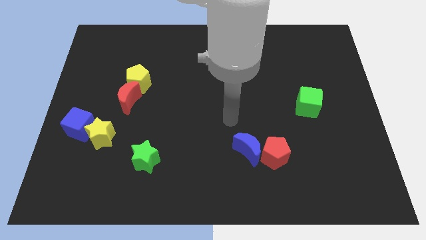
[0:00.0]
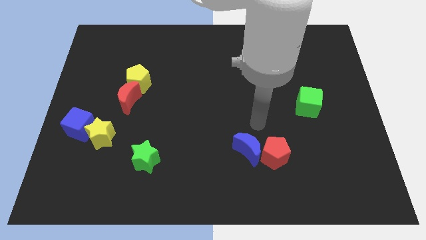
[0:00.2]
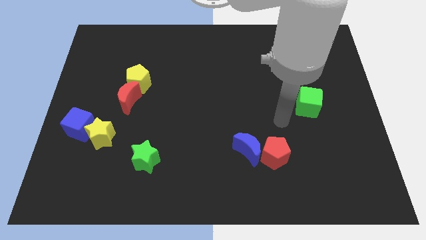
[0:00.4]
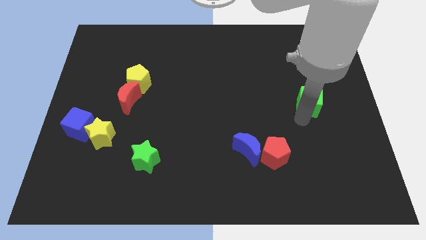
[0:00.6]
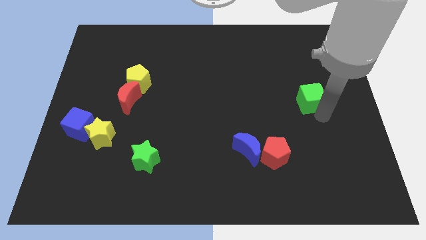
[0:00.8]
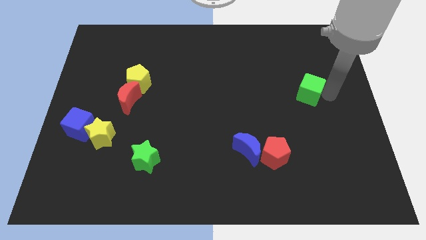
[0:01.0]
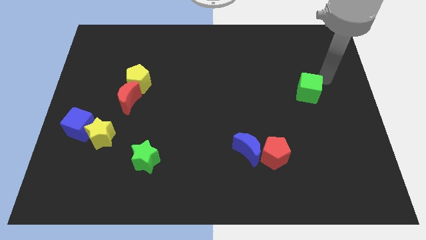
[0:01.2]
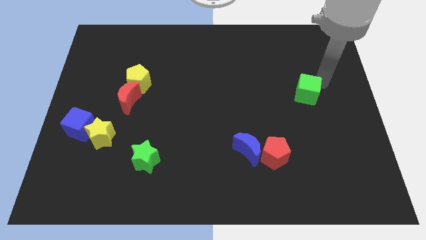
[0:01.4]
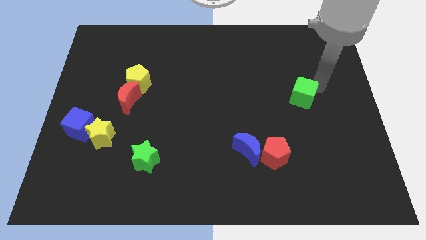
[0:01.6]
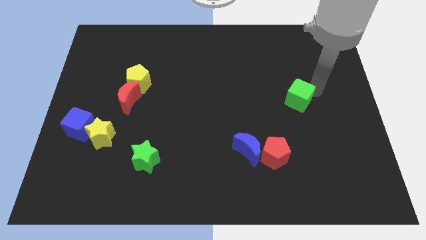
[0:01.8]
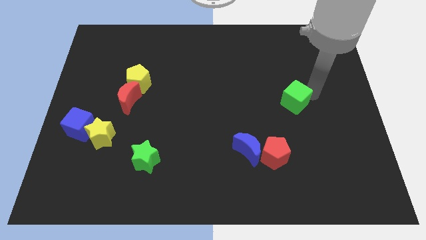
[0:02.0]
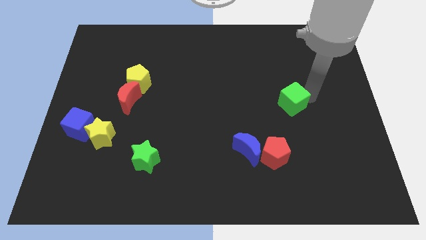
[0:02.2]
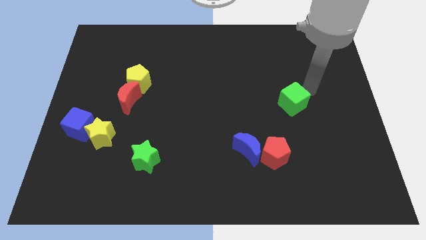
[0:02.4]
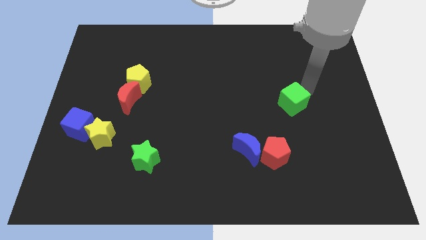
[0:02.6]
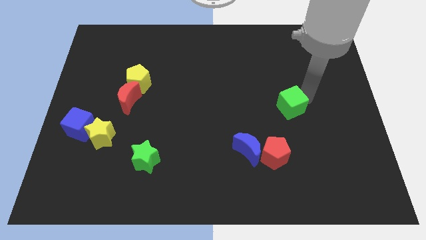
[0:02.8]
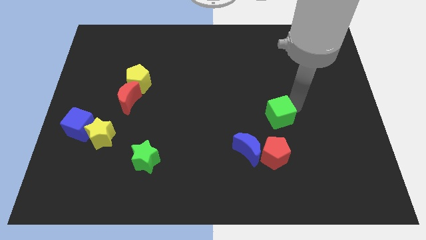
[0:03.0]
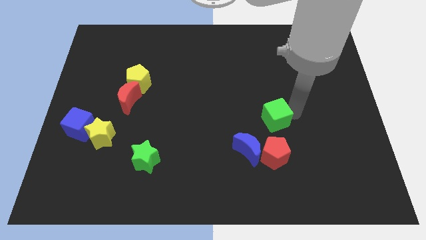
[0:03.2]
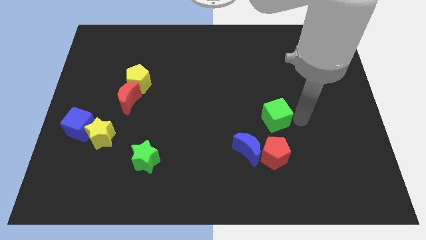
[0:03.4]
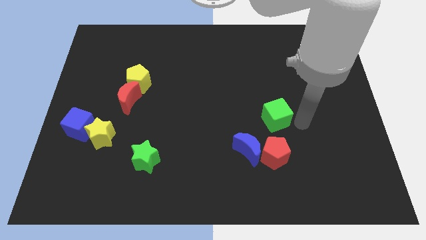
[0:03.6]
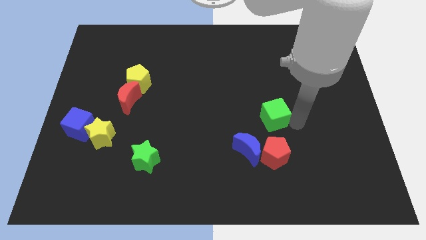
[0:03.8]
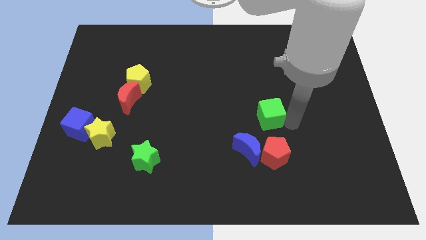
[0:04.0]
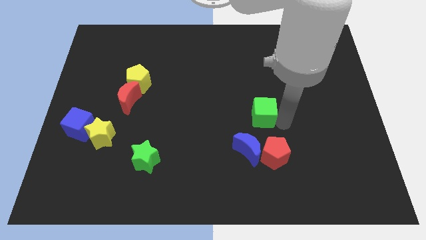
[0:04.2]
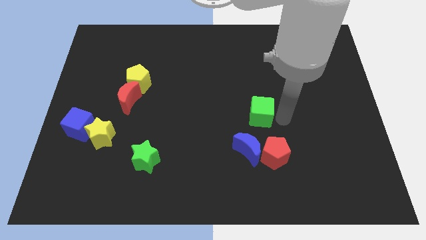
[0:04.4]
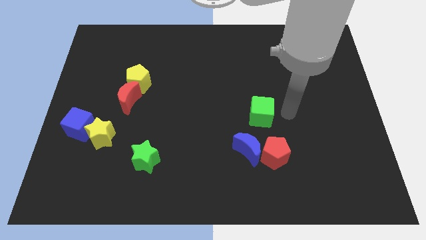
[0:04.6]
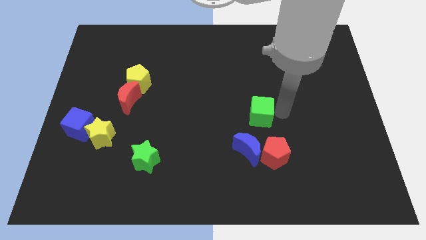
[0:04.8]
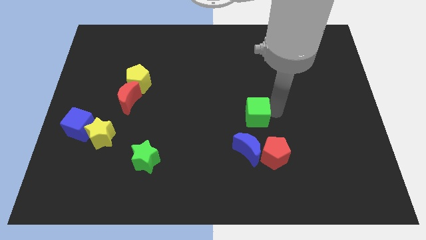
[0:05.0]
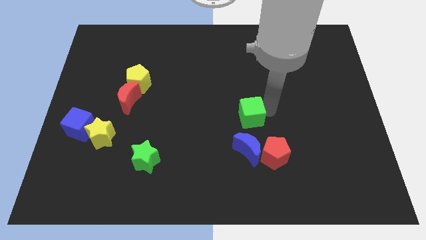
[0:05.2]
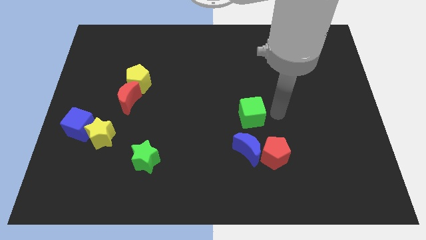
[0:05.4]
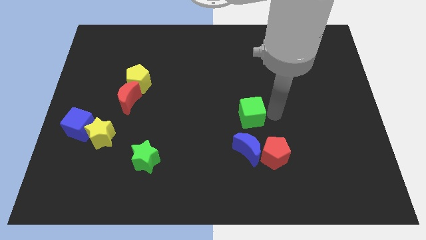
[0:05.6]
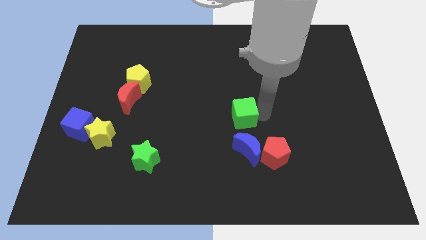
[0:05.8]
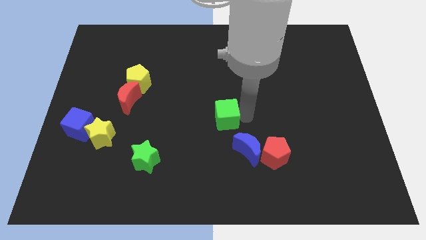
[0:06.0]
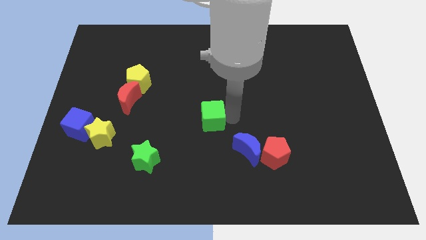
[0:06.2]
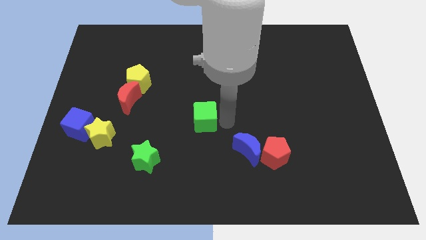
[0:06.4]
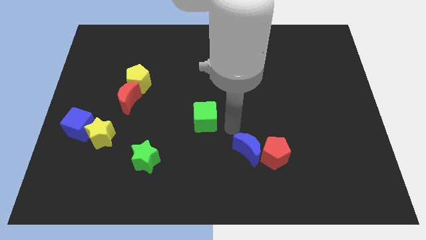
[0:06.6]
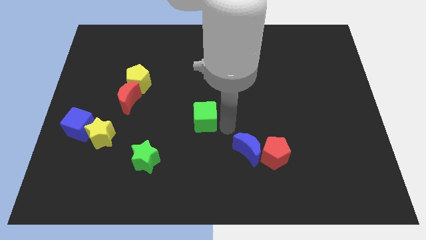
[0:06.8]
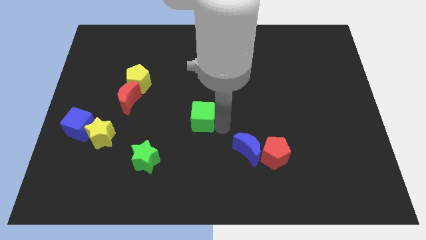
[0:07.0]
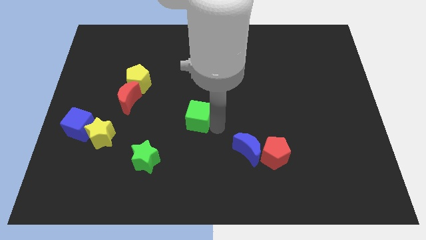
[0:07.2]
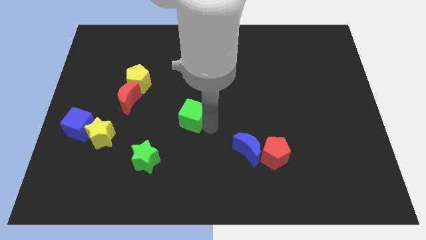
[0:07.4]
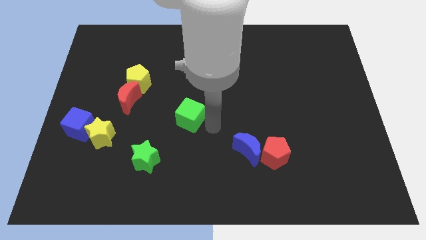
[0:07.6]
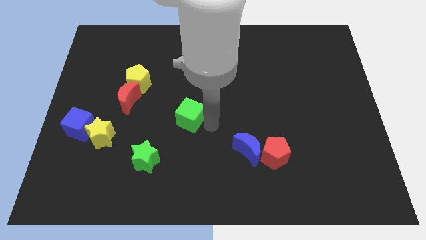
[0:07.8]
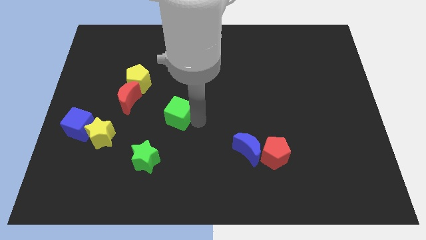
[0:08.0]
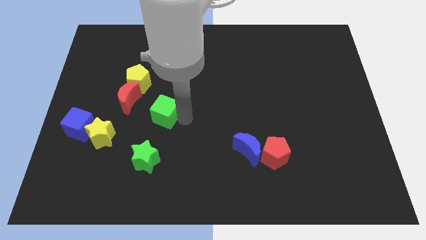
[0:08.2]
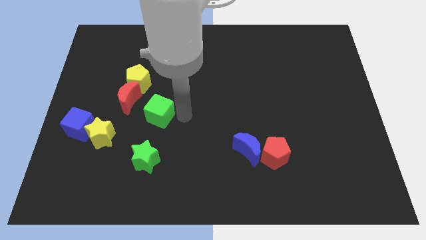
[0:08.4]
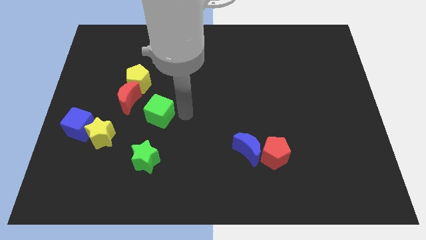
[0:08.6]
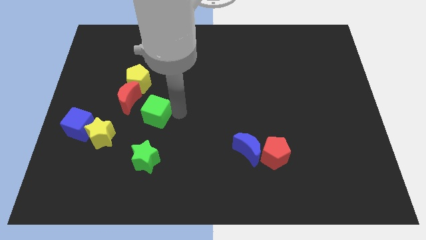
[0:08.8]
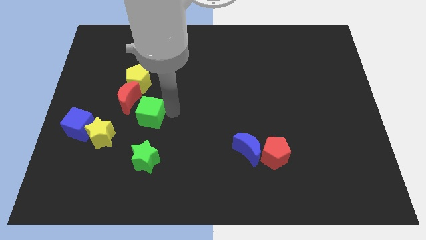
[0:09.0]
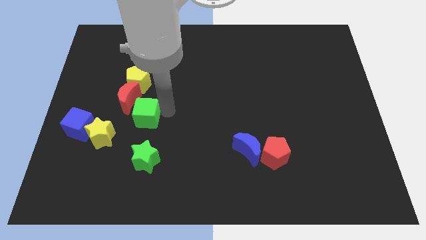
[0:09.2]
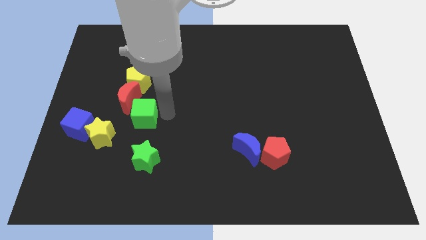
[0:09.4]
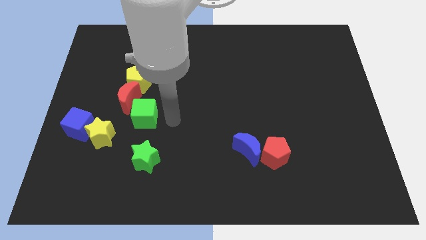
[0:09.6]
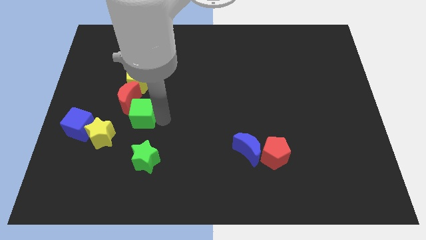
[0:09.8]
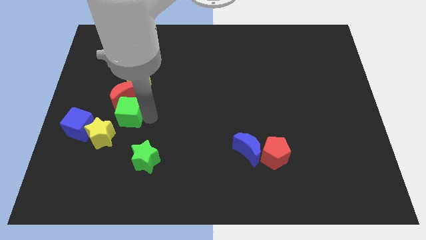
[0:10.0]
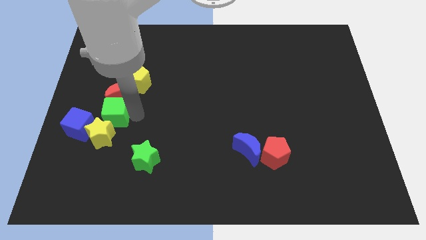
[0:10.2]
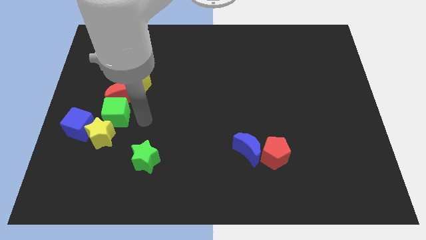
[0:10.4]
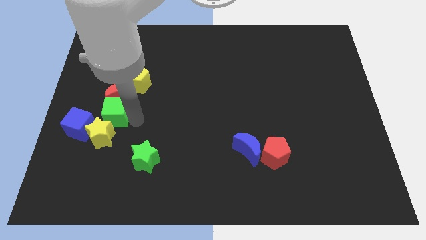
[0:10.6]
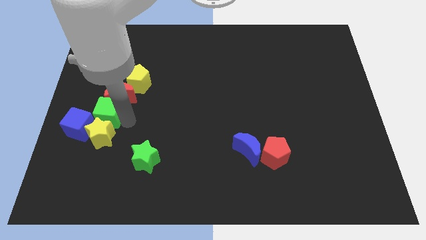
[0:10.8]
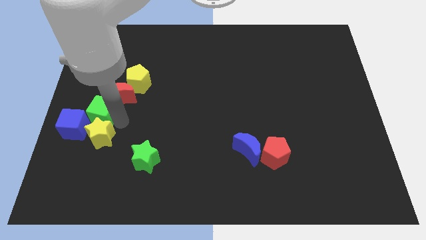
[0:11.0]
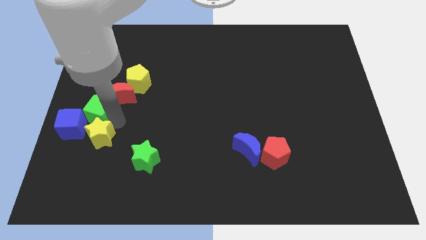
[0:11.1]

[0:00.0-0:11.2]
slide the green cube to the left side of the board
